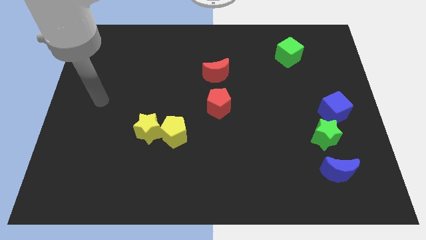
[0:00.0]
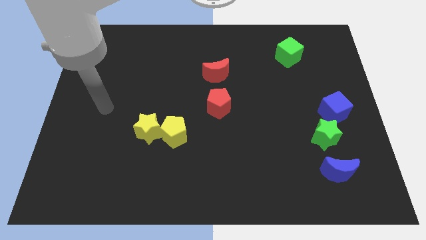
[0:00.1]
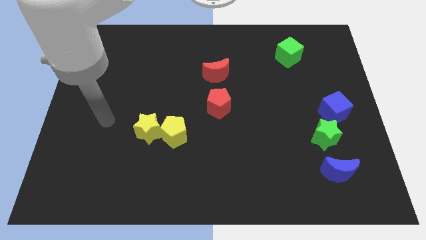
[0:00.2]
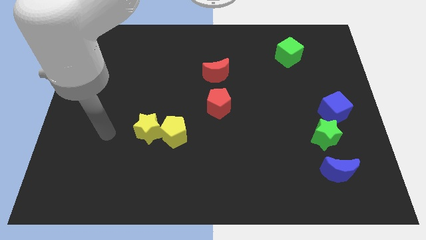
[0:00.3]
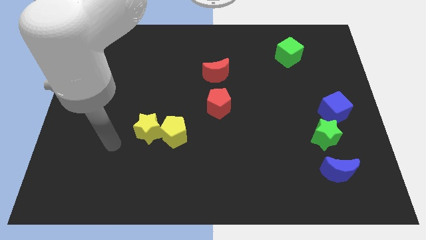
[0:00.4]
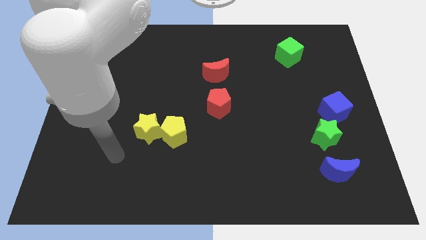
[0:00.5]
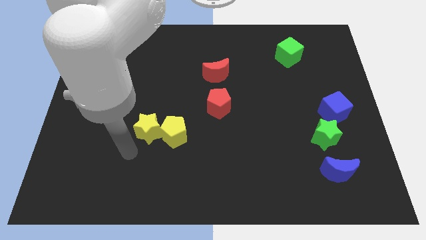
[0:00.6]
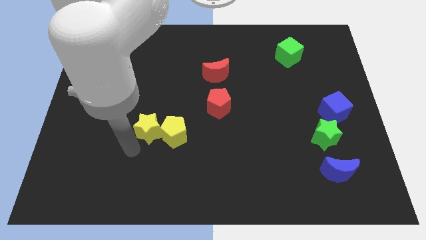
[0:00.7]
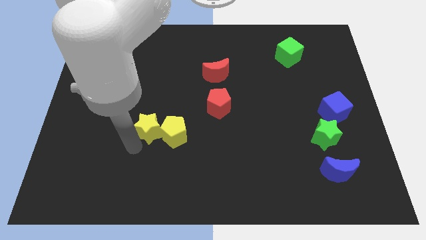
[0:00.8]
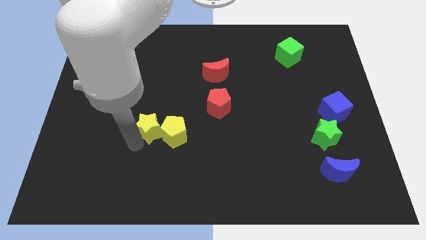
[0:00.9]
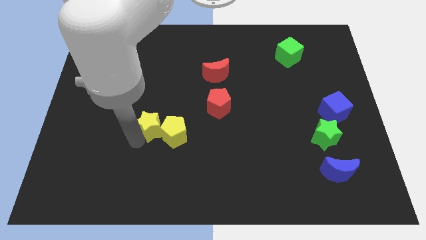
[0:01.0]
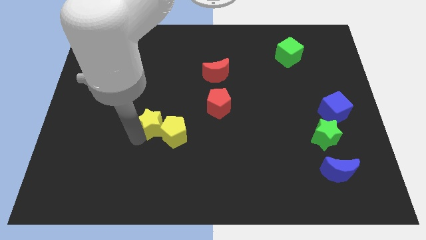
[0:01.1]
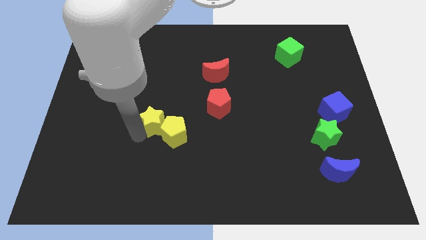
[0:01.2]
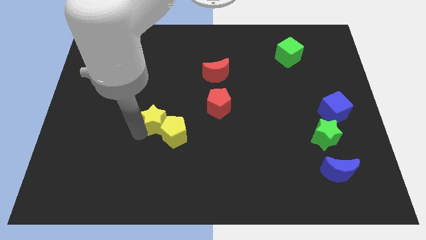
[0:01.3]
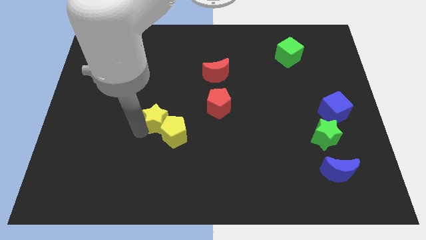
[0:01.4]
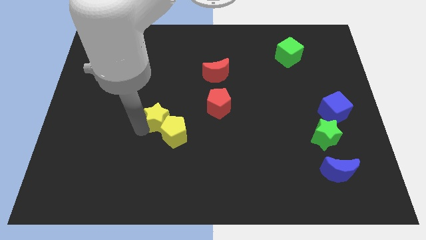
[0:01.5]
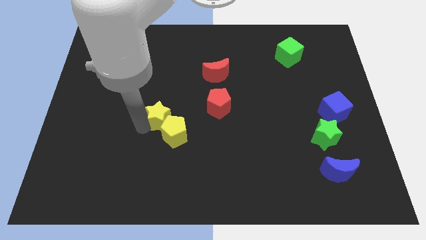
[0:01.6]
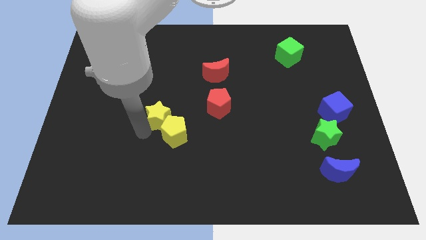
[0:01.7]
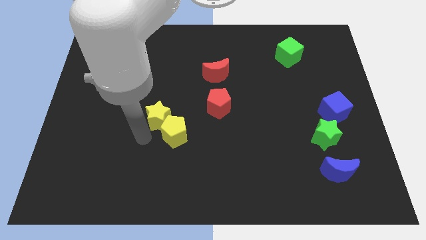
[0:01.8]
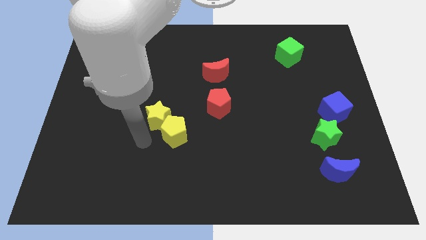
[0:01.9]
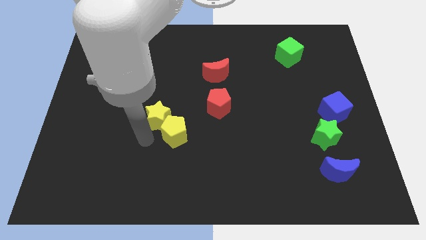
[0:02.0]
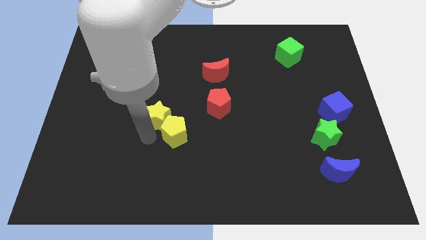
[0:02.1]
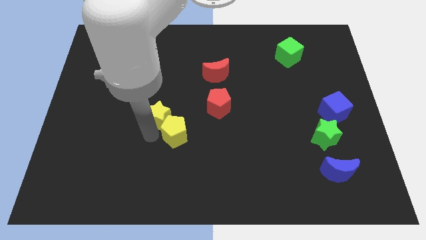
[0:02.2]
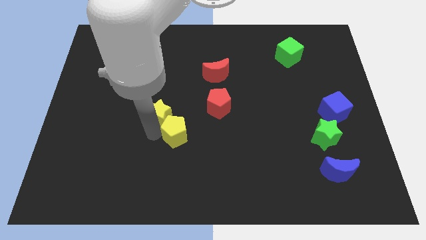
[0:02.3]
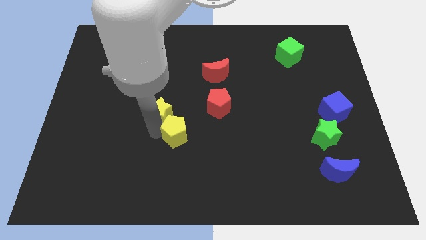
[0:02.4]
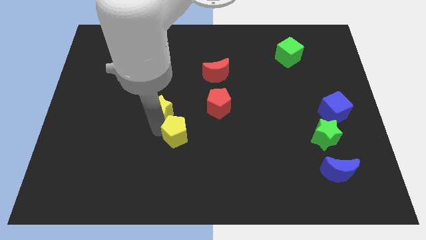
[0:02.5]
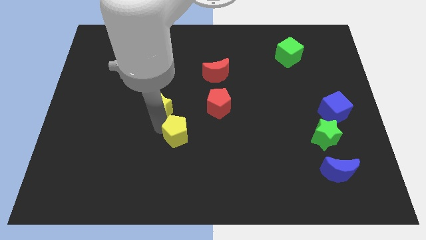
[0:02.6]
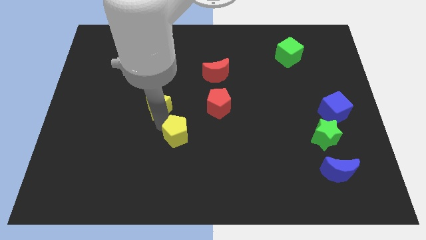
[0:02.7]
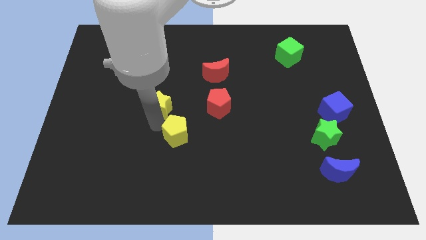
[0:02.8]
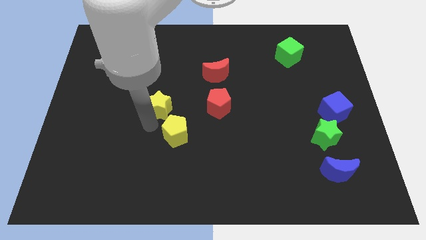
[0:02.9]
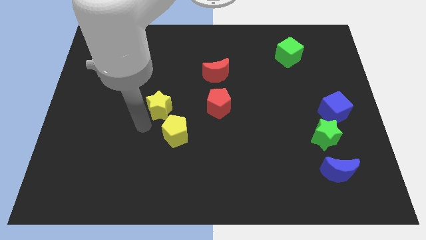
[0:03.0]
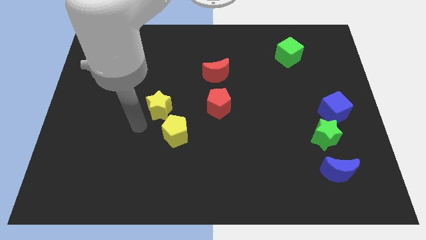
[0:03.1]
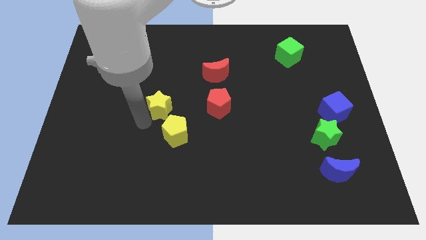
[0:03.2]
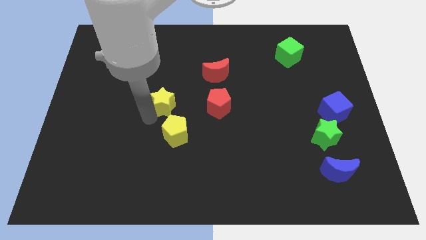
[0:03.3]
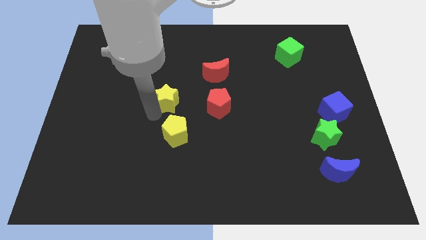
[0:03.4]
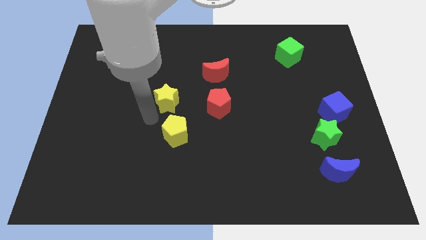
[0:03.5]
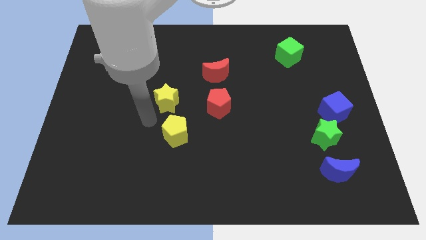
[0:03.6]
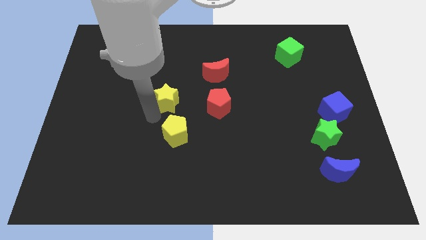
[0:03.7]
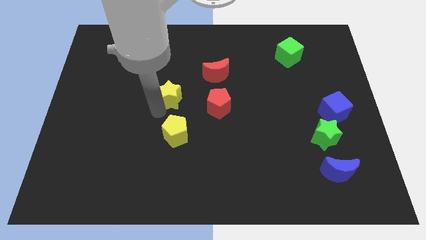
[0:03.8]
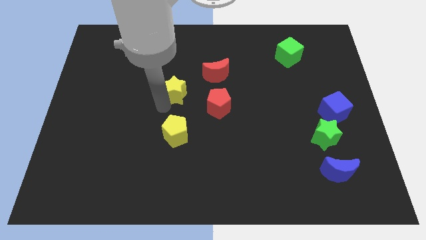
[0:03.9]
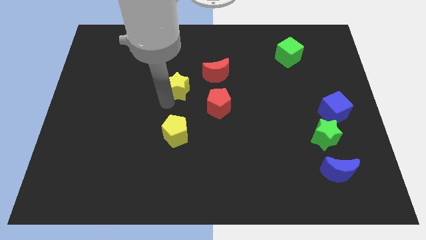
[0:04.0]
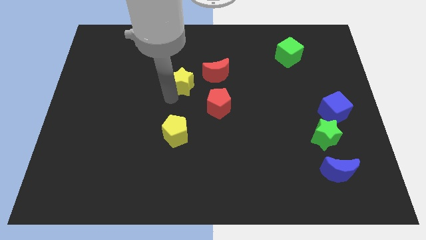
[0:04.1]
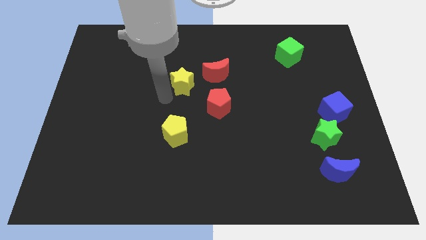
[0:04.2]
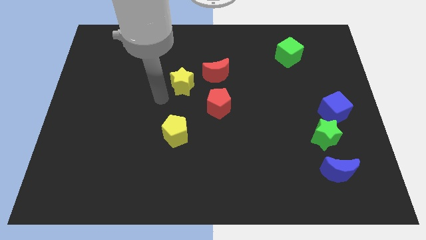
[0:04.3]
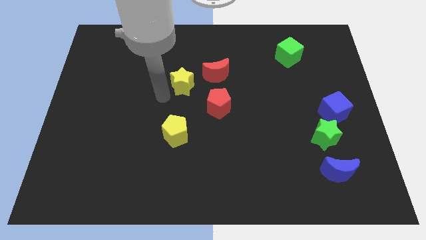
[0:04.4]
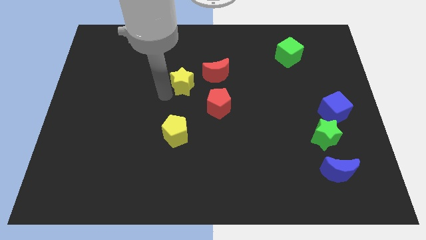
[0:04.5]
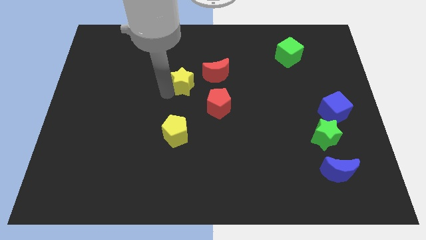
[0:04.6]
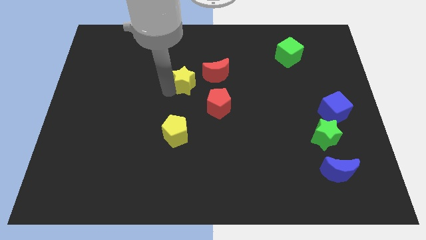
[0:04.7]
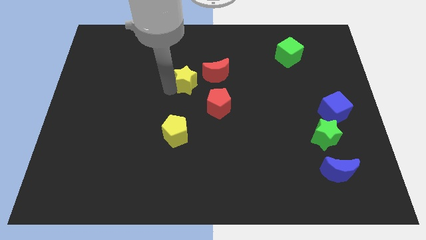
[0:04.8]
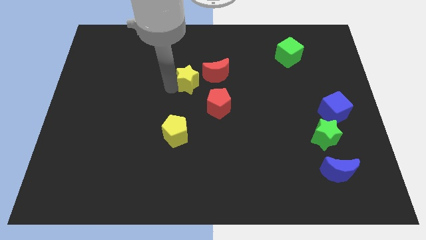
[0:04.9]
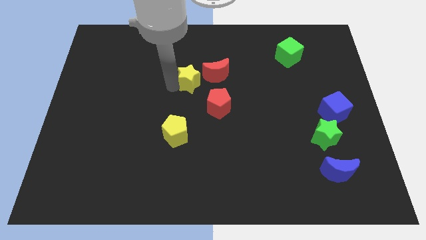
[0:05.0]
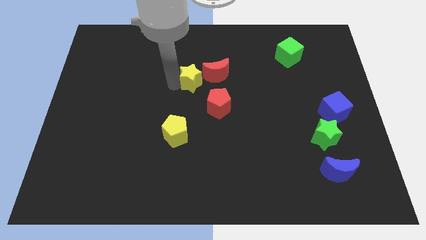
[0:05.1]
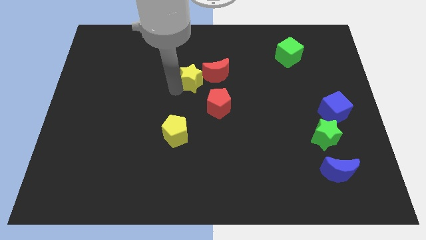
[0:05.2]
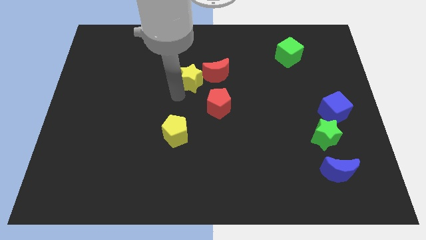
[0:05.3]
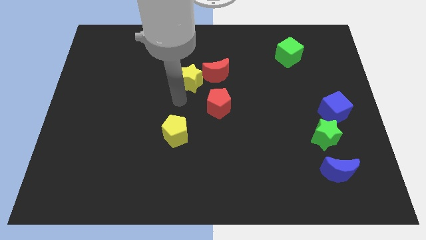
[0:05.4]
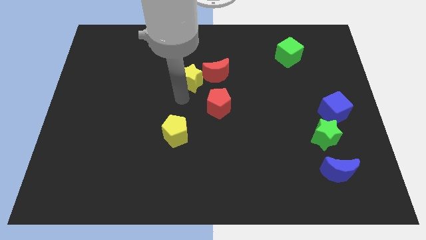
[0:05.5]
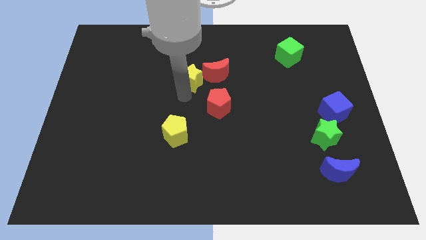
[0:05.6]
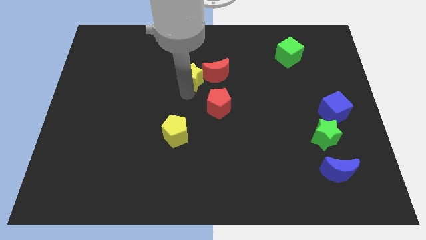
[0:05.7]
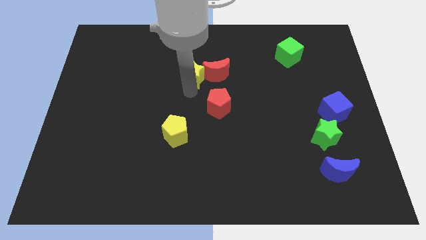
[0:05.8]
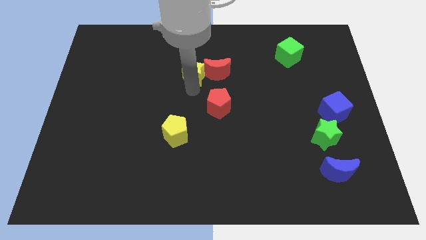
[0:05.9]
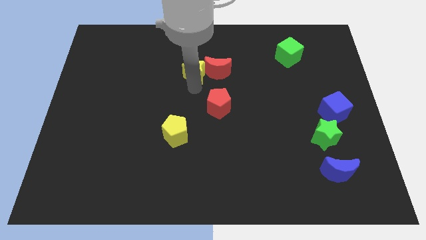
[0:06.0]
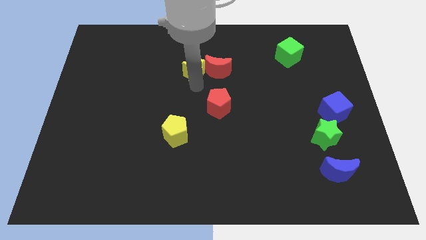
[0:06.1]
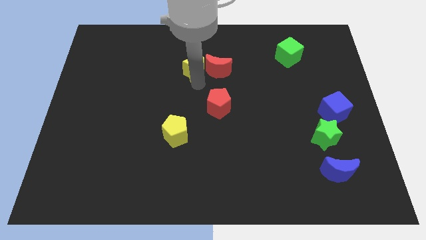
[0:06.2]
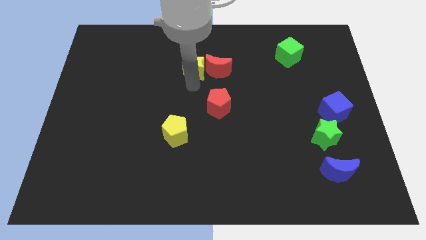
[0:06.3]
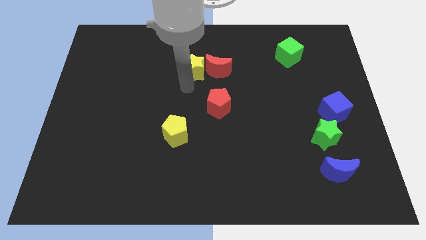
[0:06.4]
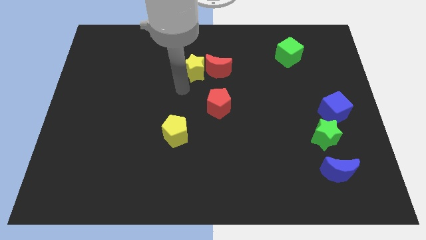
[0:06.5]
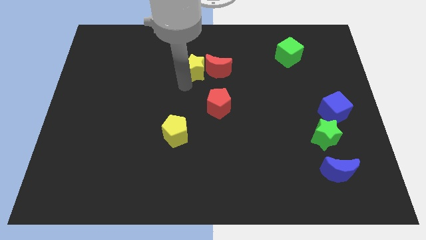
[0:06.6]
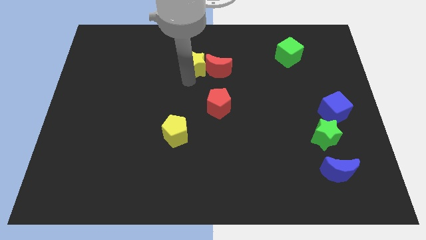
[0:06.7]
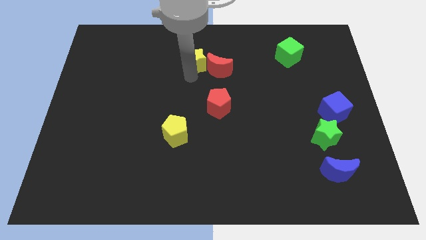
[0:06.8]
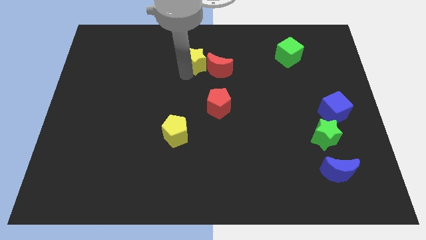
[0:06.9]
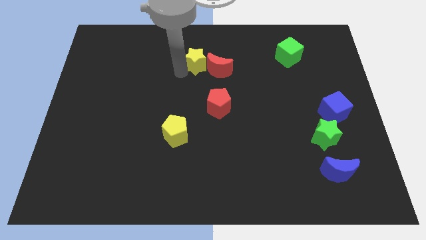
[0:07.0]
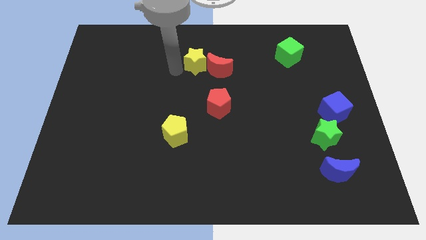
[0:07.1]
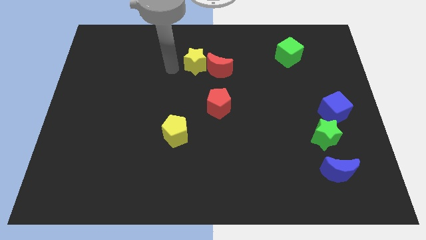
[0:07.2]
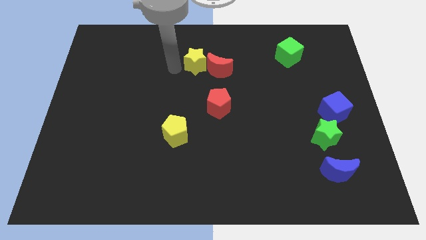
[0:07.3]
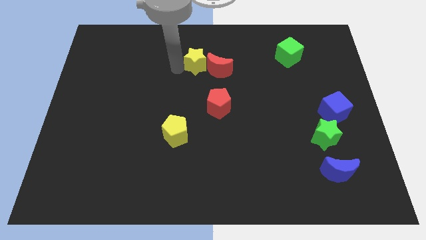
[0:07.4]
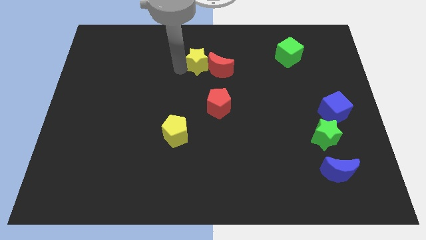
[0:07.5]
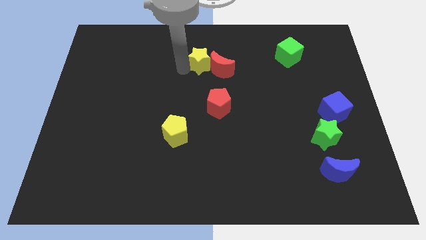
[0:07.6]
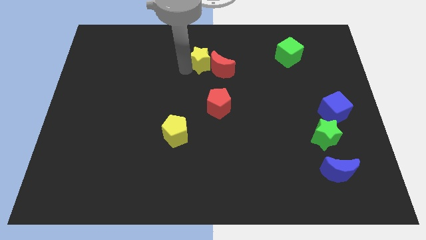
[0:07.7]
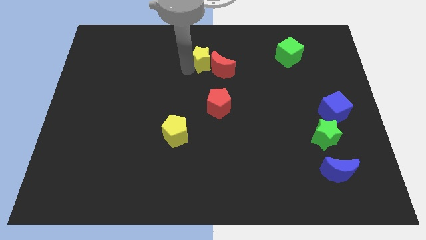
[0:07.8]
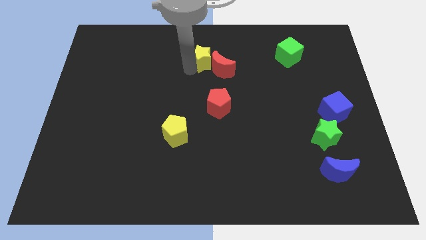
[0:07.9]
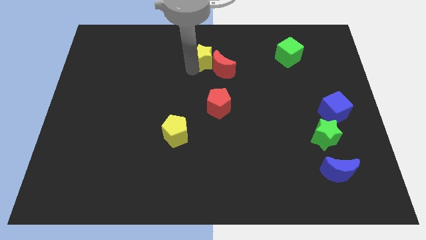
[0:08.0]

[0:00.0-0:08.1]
put the yellow star above the red pentagon
